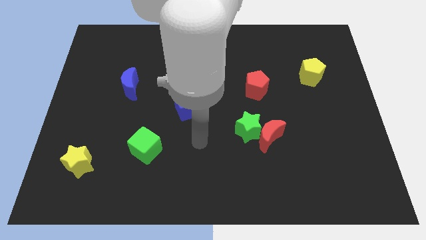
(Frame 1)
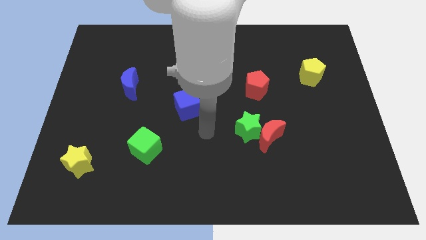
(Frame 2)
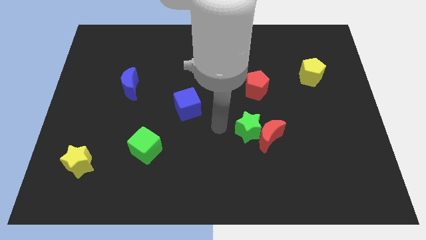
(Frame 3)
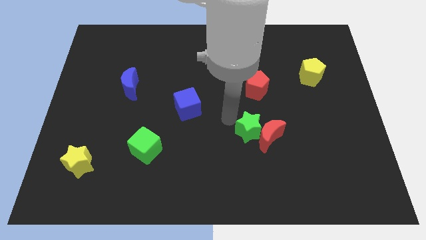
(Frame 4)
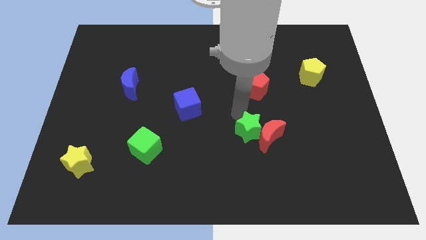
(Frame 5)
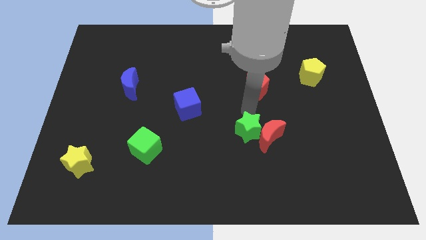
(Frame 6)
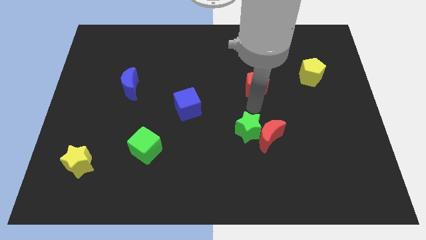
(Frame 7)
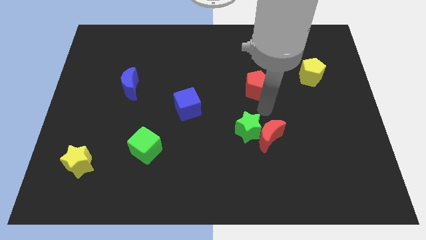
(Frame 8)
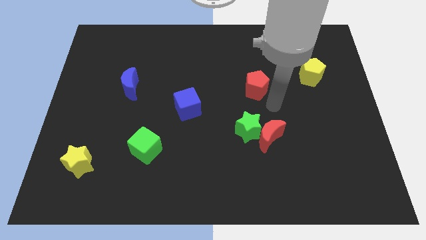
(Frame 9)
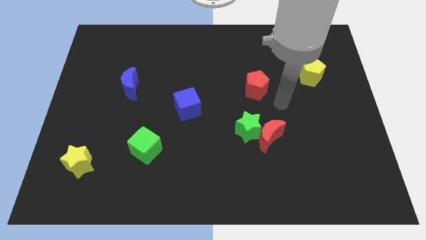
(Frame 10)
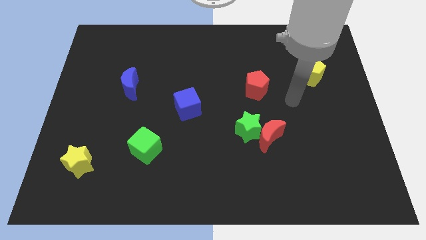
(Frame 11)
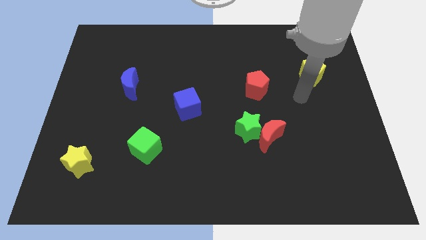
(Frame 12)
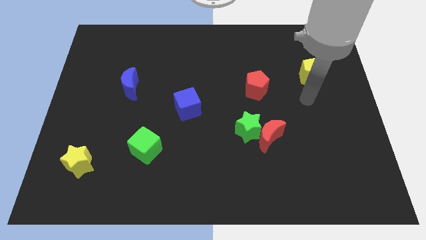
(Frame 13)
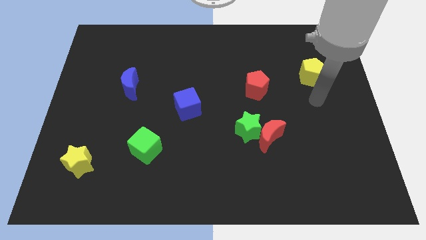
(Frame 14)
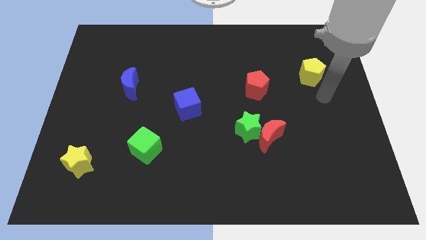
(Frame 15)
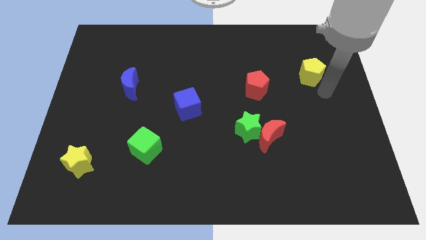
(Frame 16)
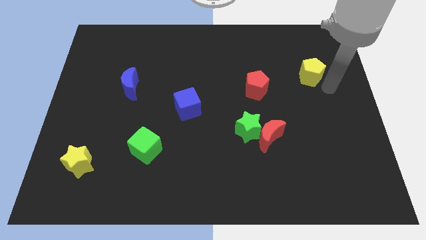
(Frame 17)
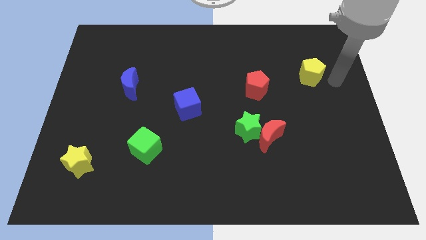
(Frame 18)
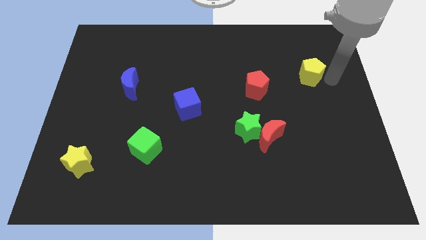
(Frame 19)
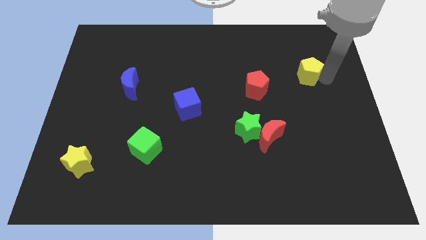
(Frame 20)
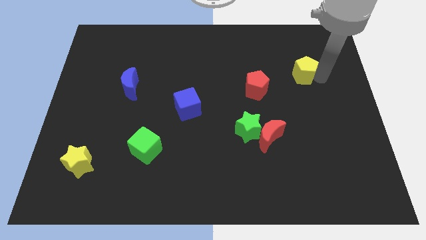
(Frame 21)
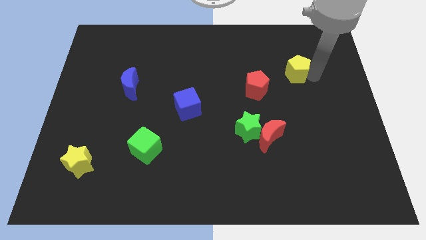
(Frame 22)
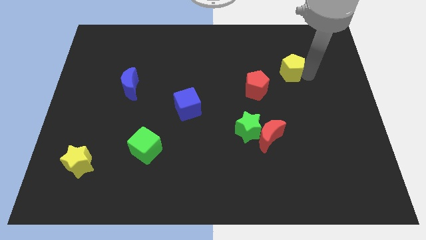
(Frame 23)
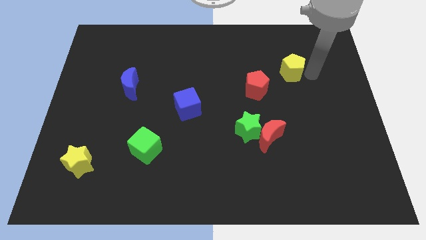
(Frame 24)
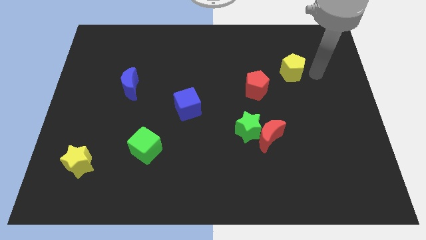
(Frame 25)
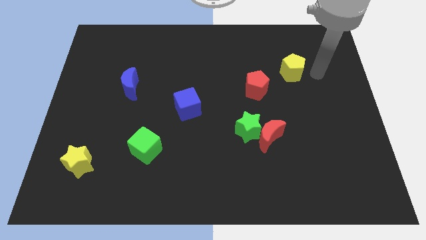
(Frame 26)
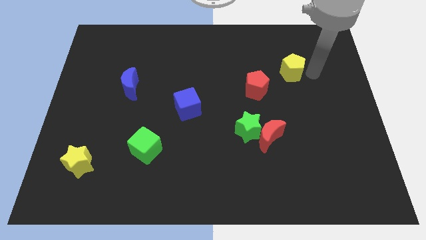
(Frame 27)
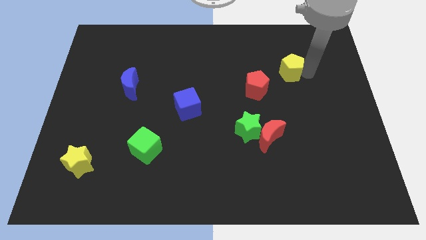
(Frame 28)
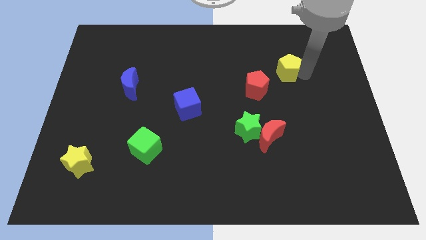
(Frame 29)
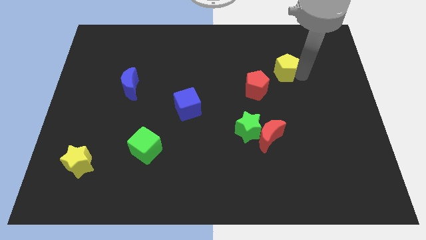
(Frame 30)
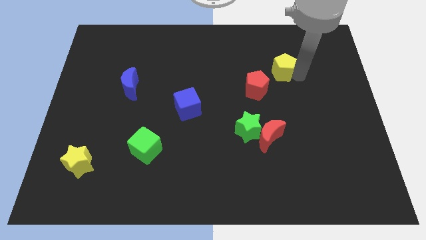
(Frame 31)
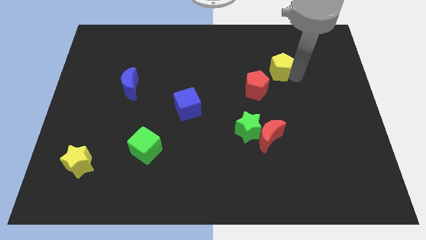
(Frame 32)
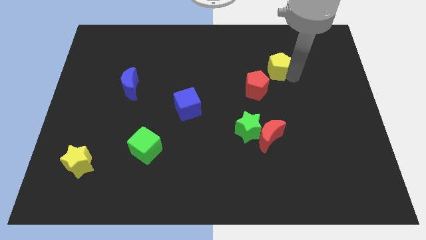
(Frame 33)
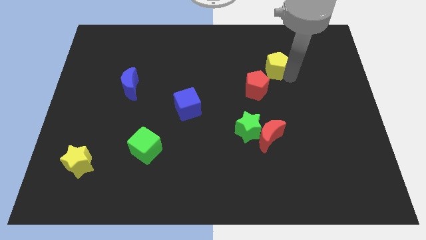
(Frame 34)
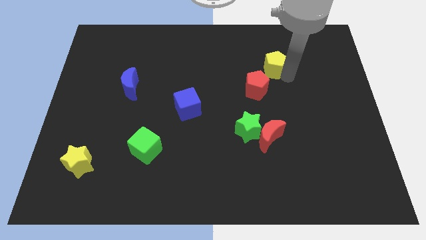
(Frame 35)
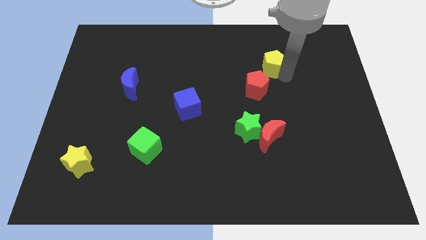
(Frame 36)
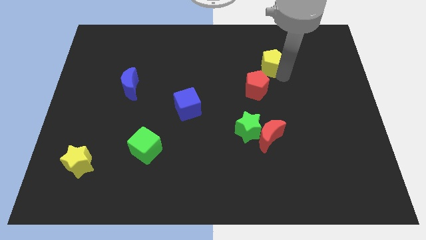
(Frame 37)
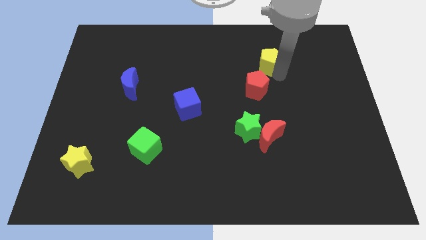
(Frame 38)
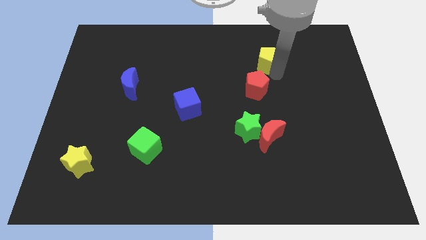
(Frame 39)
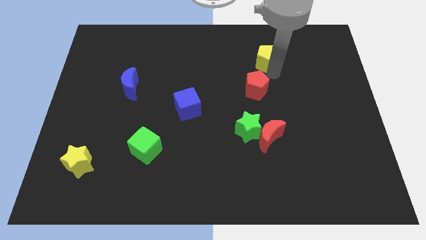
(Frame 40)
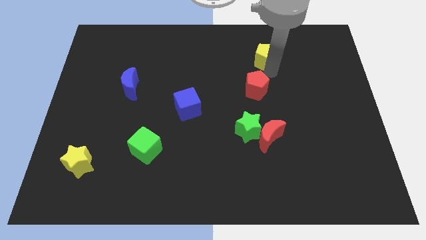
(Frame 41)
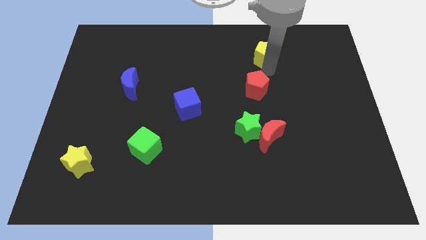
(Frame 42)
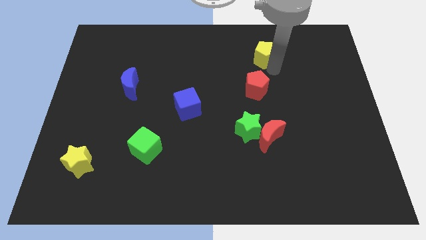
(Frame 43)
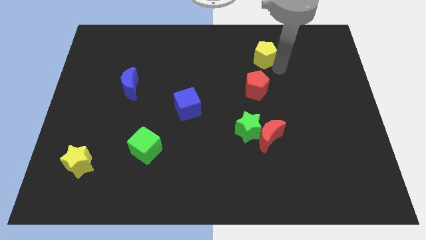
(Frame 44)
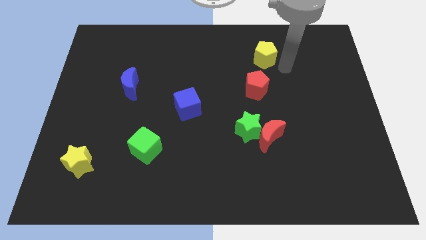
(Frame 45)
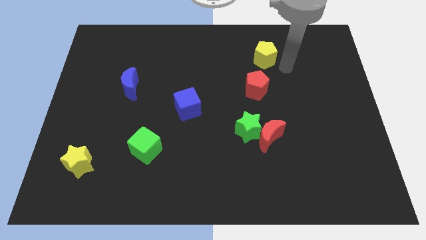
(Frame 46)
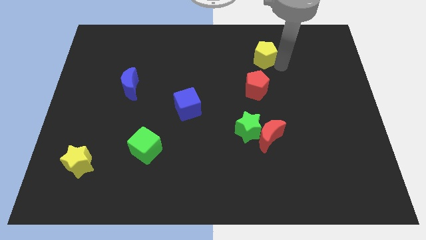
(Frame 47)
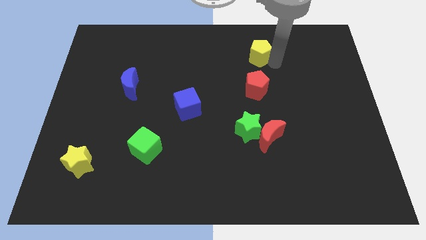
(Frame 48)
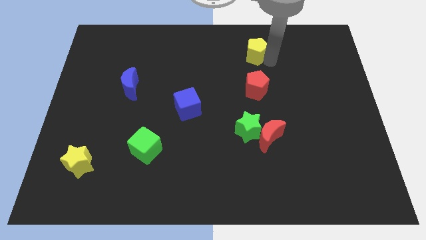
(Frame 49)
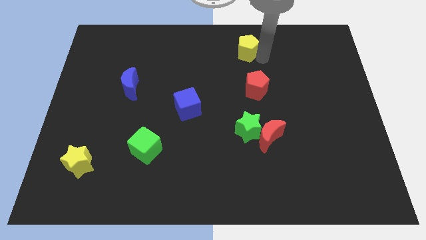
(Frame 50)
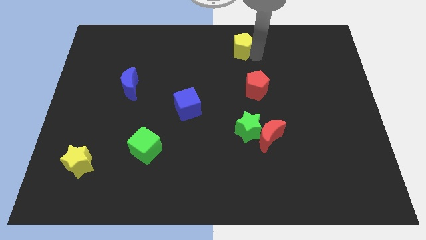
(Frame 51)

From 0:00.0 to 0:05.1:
move the yellow pentagon to the towards your base

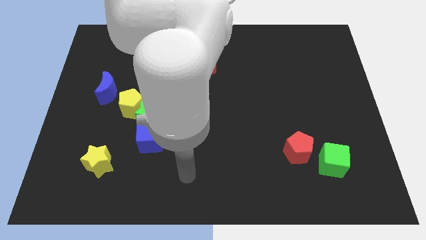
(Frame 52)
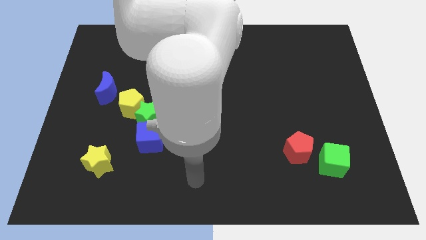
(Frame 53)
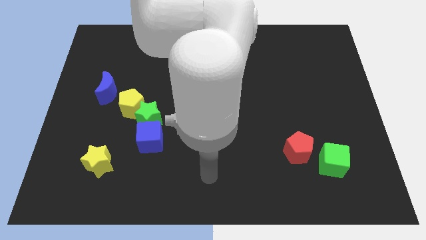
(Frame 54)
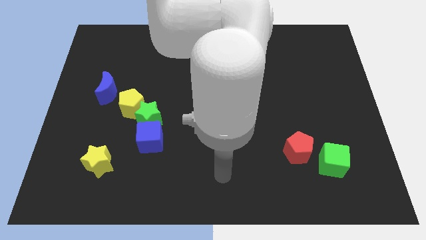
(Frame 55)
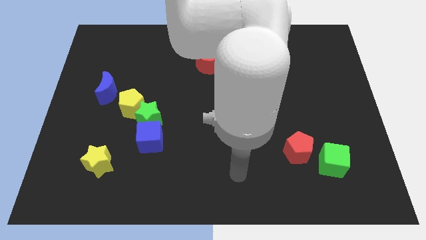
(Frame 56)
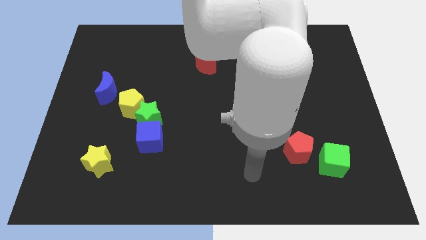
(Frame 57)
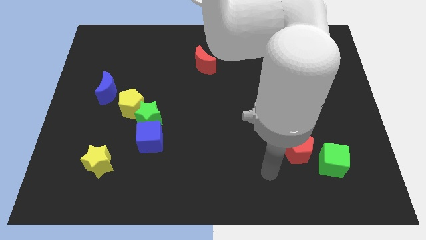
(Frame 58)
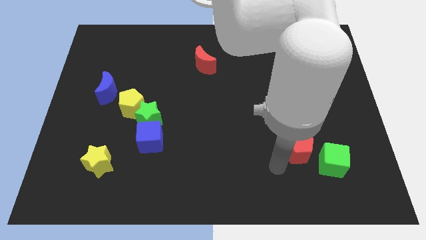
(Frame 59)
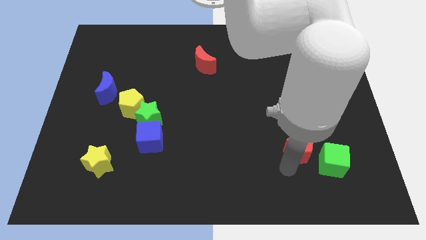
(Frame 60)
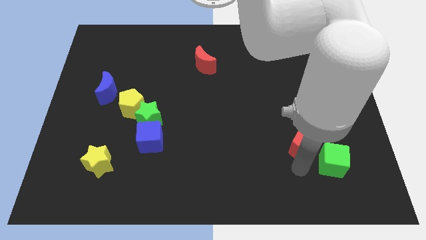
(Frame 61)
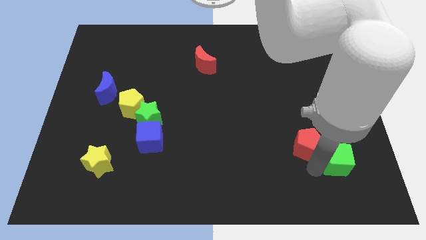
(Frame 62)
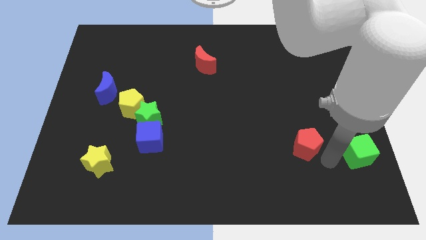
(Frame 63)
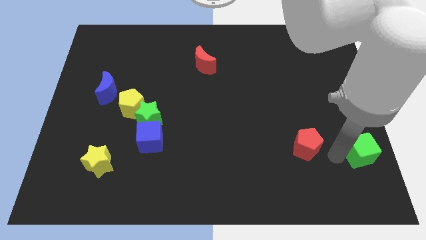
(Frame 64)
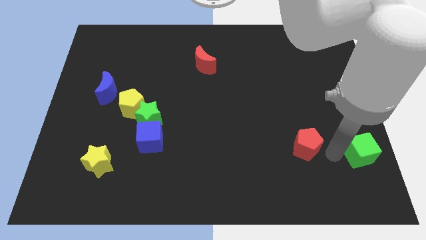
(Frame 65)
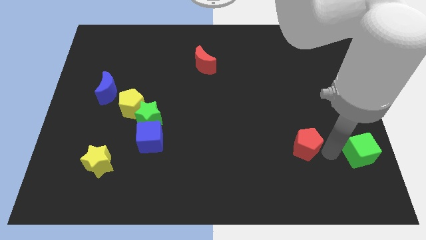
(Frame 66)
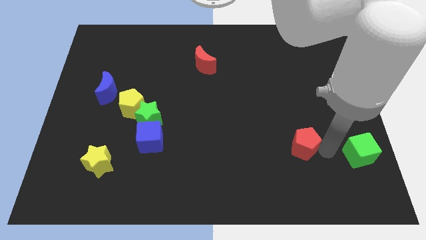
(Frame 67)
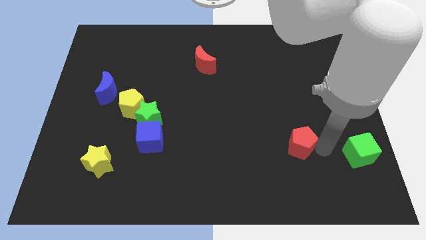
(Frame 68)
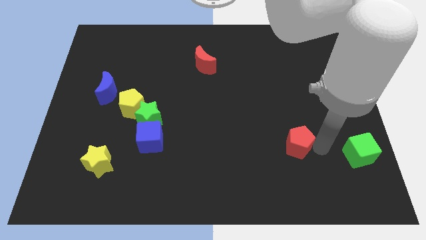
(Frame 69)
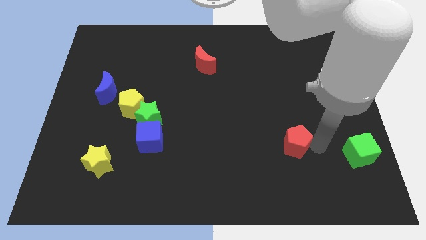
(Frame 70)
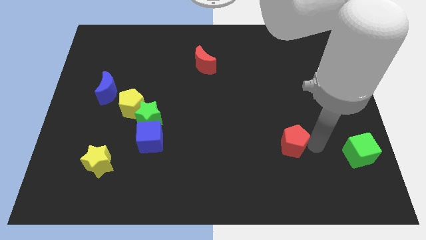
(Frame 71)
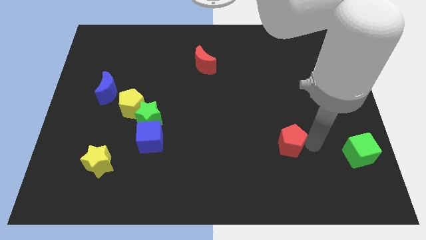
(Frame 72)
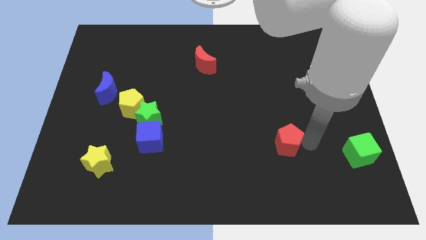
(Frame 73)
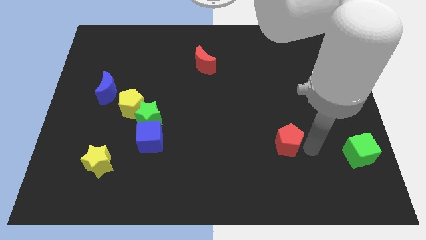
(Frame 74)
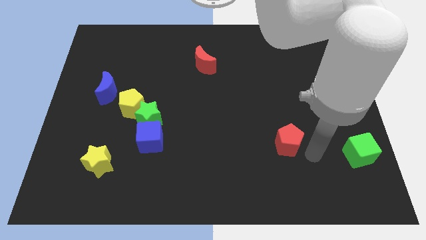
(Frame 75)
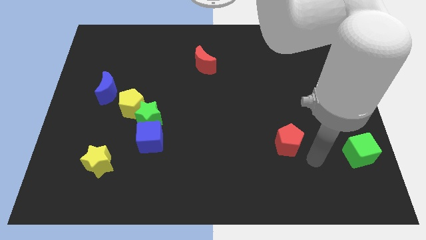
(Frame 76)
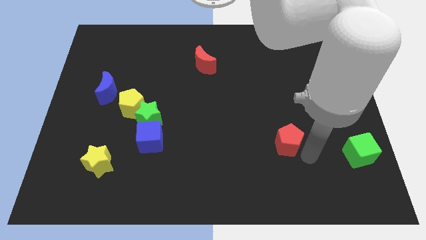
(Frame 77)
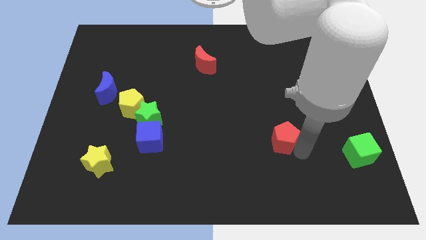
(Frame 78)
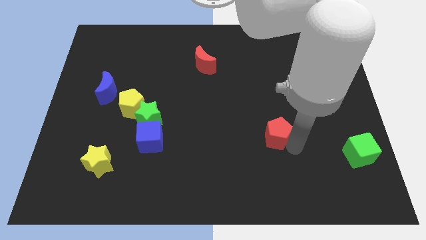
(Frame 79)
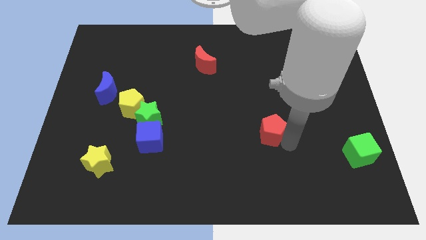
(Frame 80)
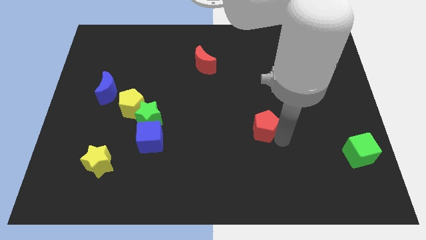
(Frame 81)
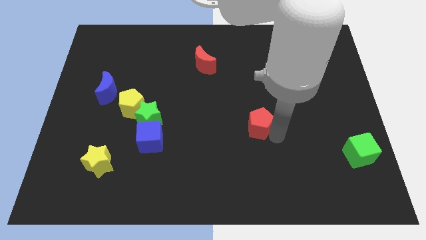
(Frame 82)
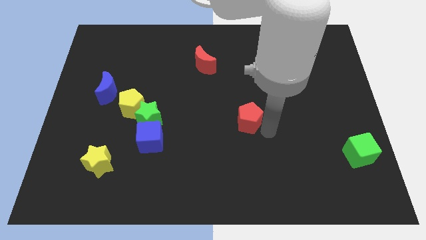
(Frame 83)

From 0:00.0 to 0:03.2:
slide the red pentagon to the center
